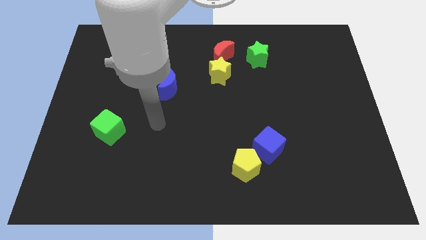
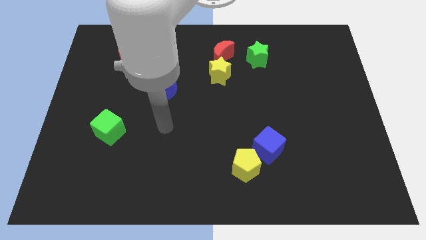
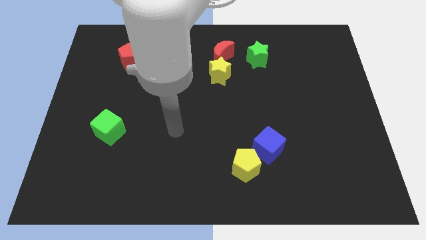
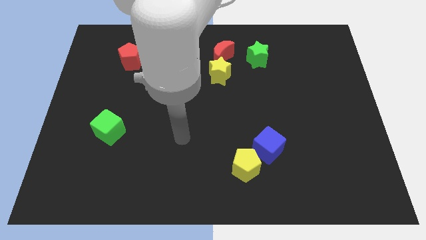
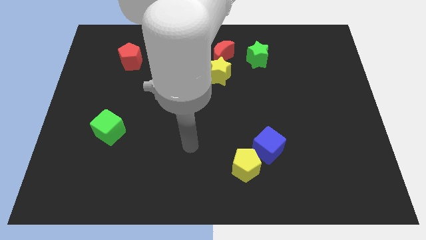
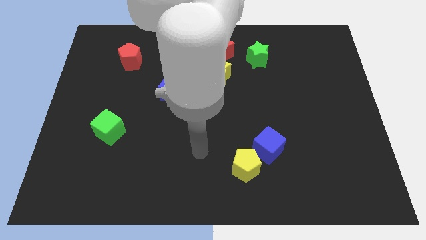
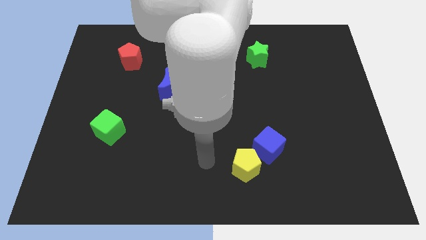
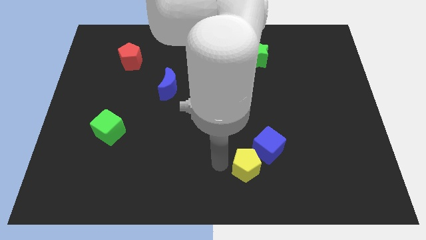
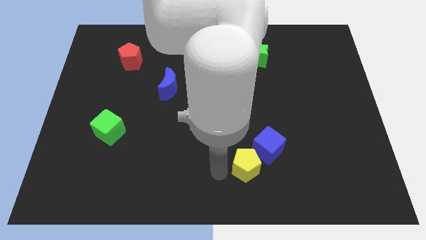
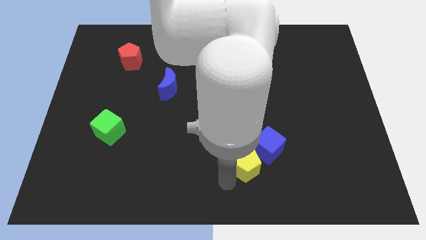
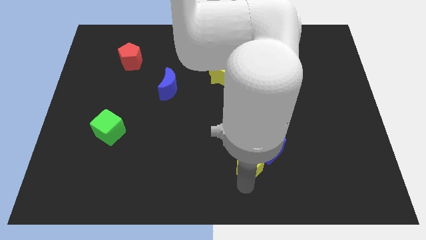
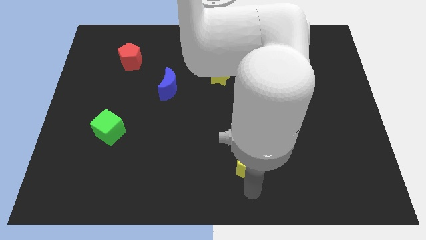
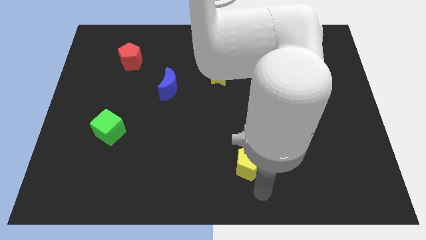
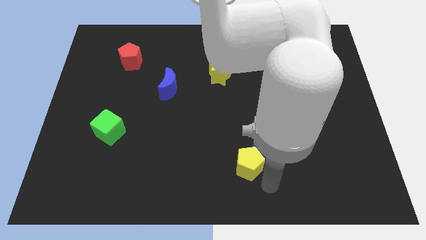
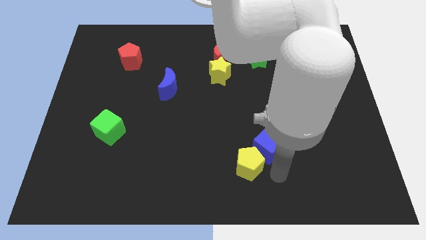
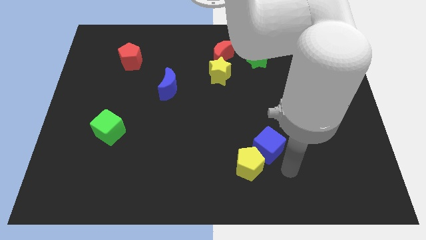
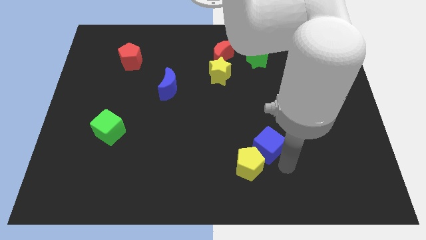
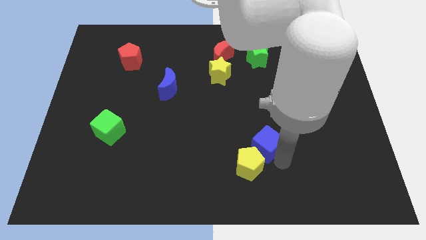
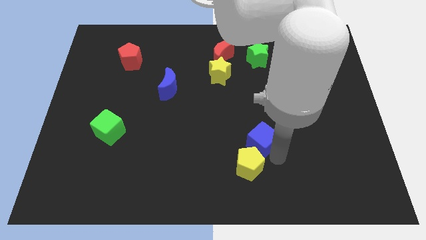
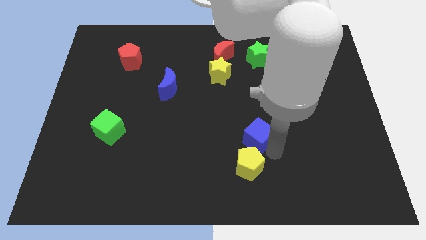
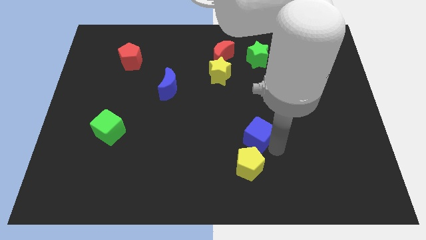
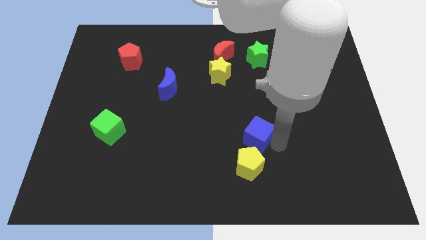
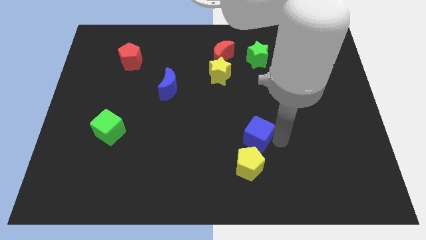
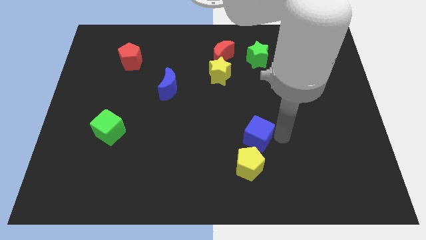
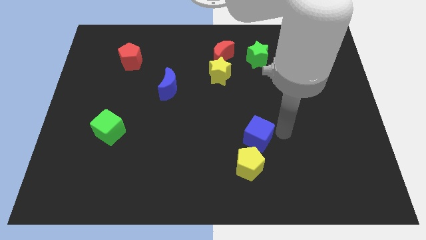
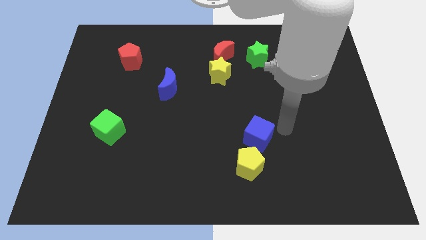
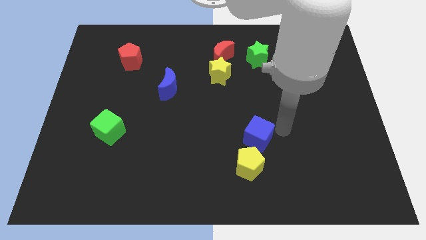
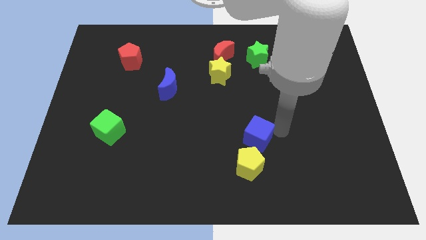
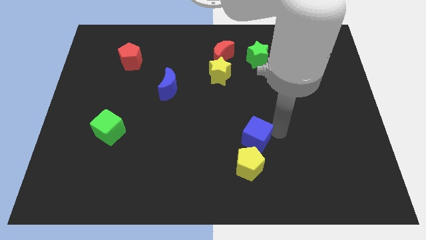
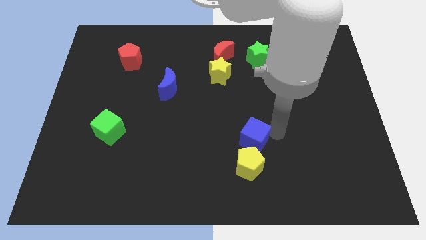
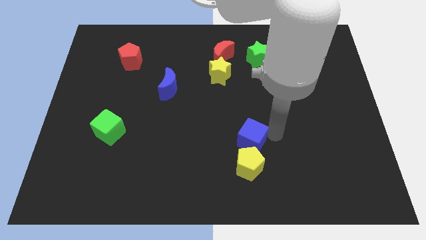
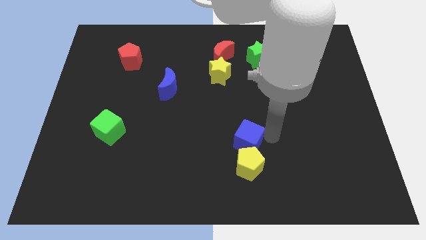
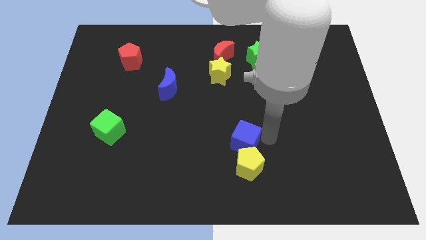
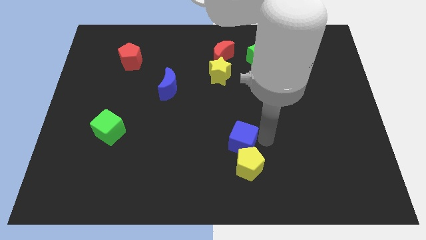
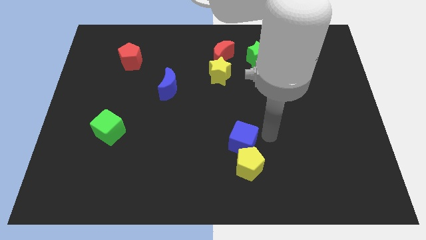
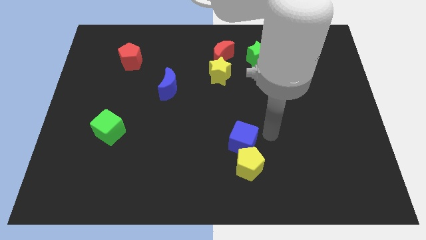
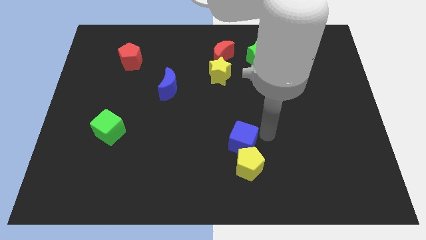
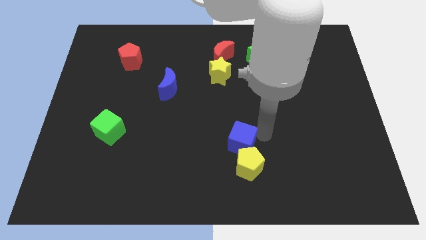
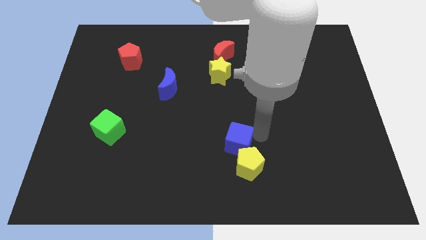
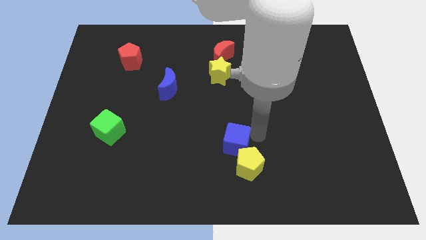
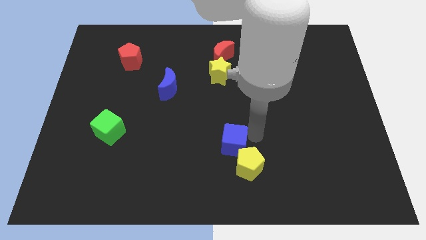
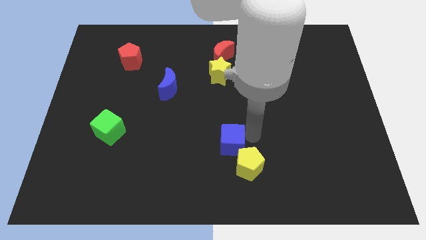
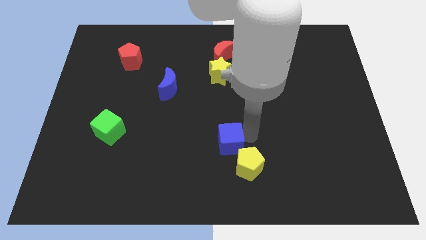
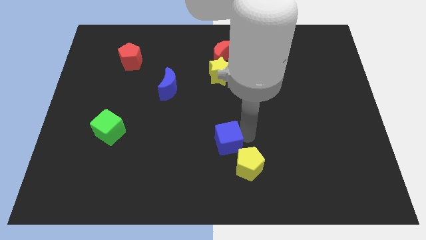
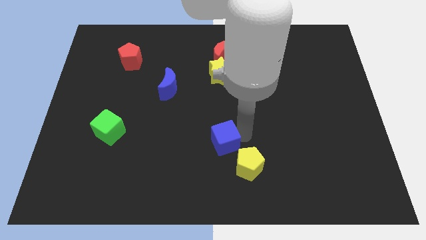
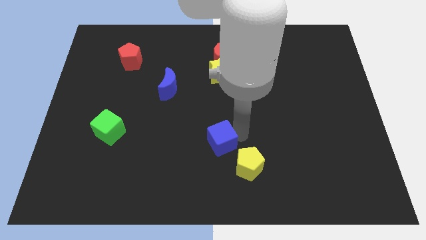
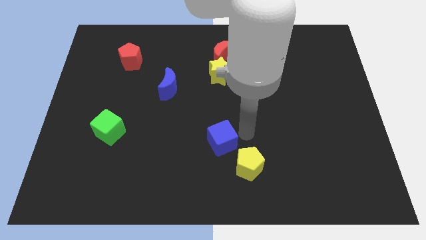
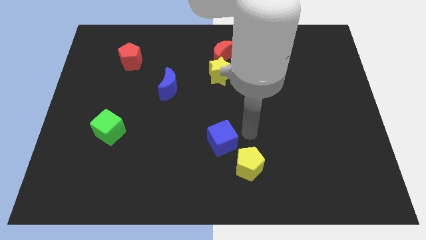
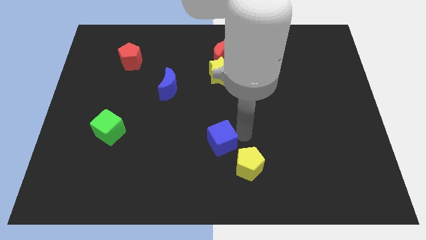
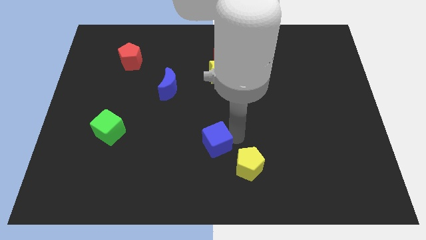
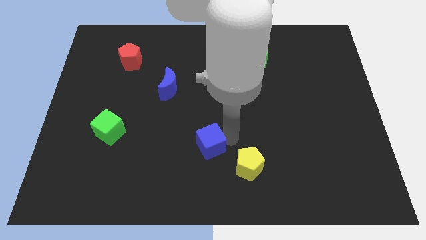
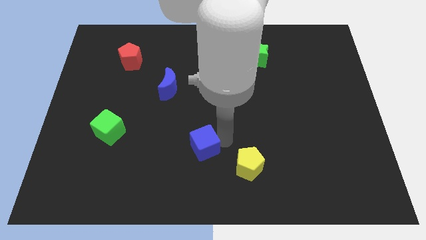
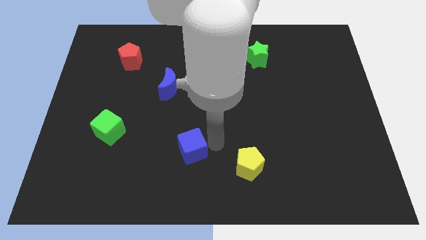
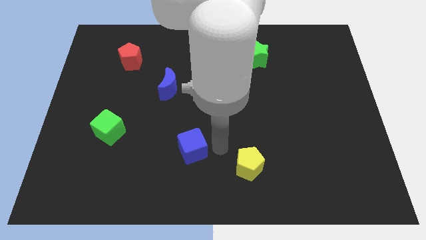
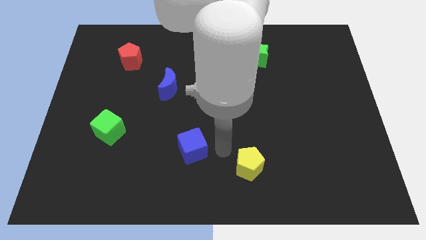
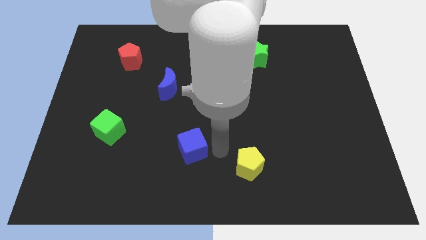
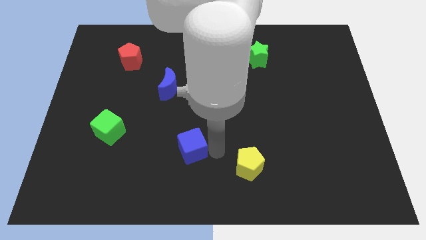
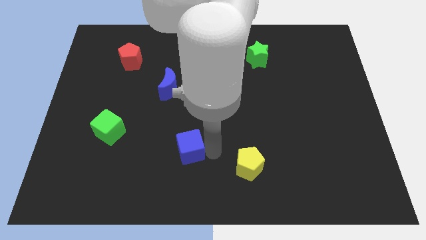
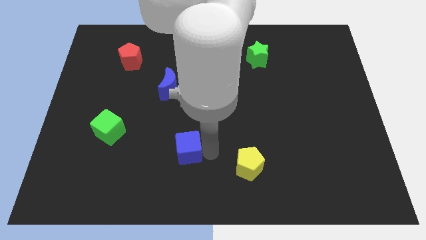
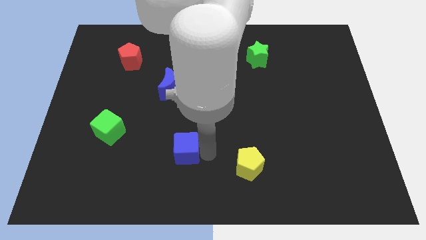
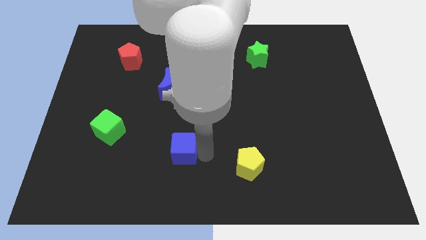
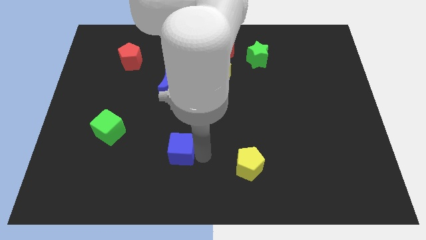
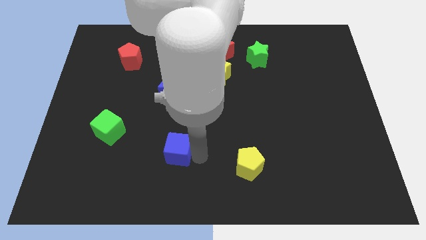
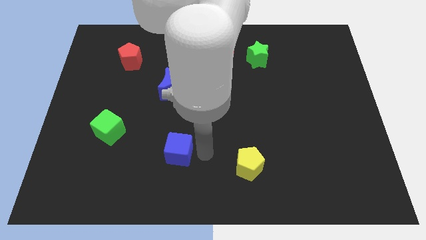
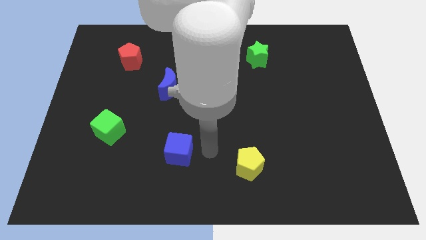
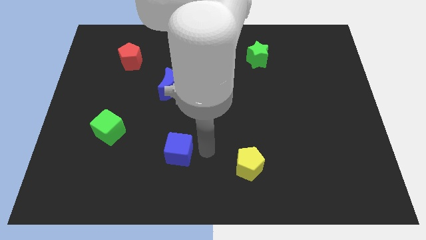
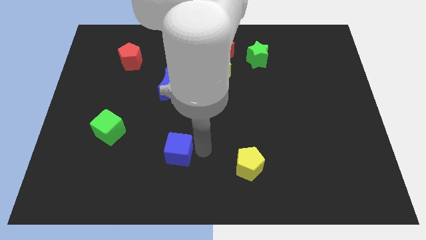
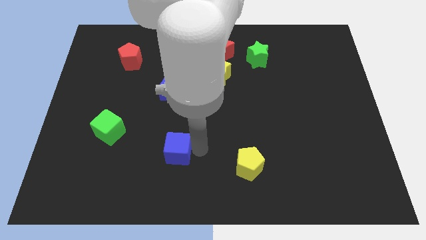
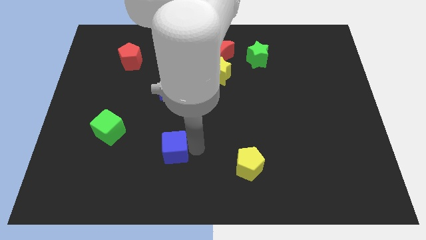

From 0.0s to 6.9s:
move the blue cube to the left

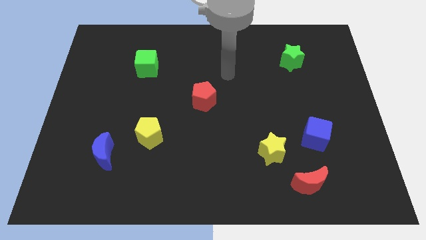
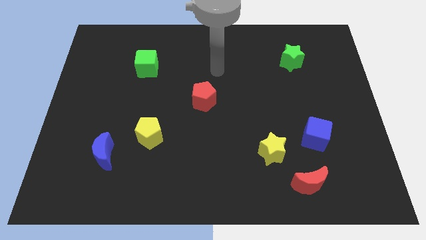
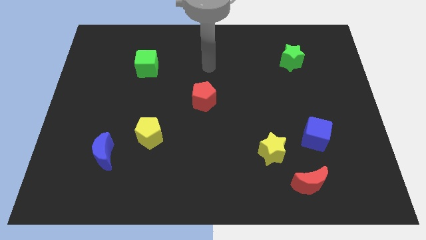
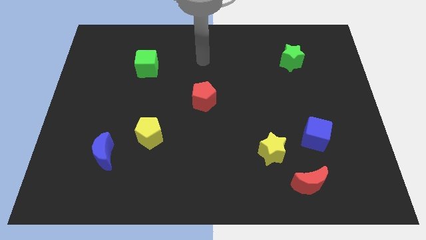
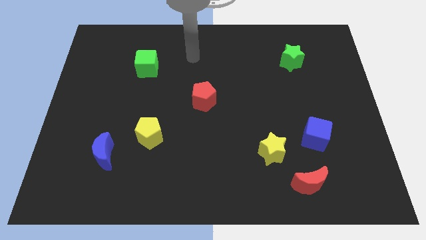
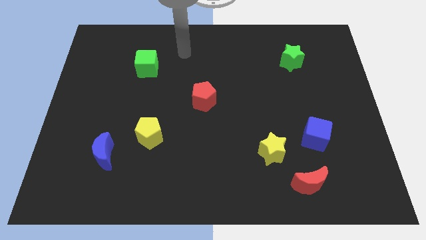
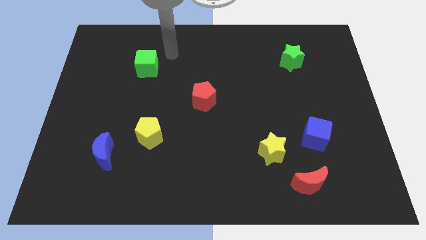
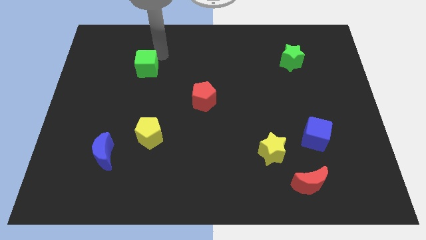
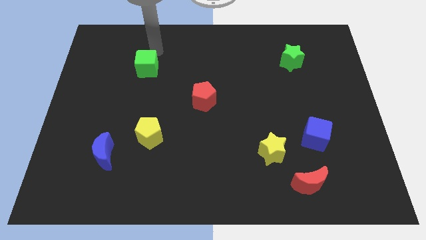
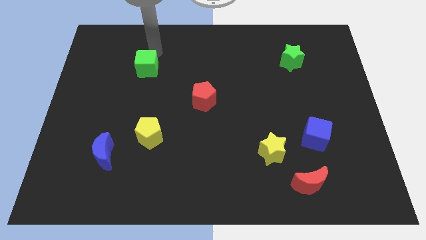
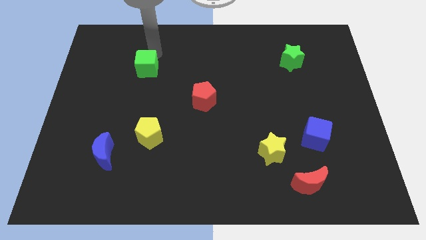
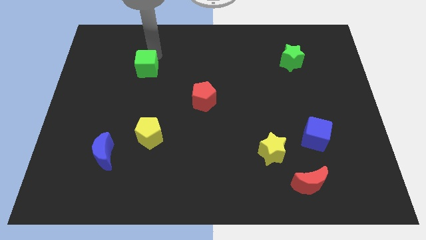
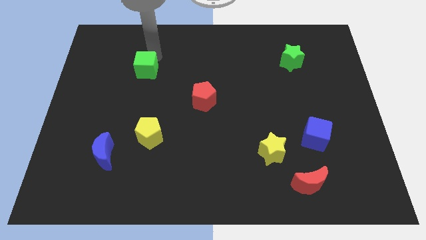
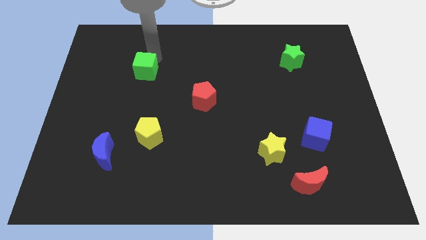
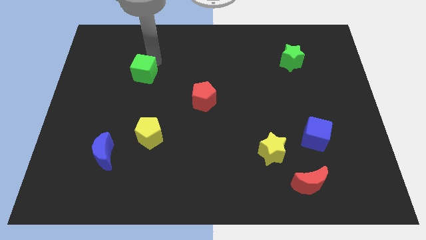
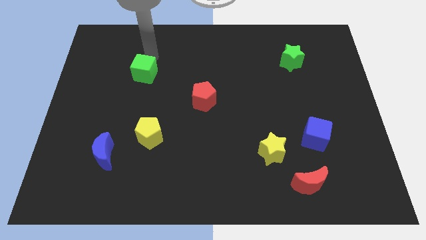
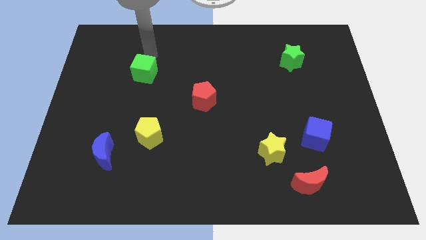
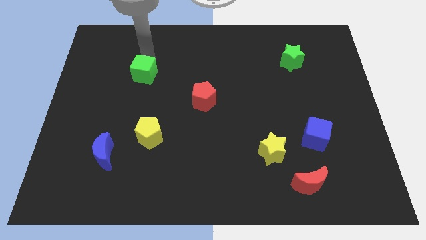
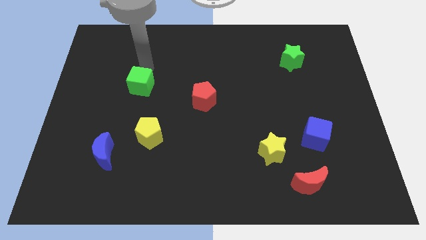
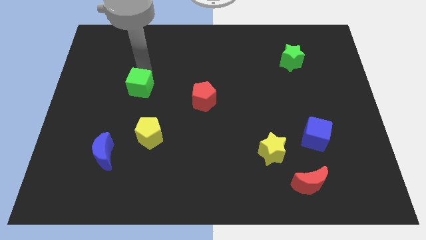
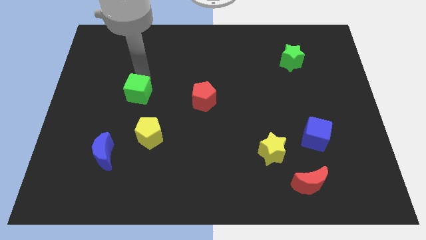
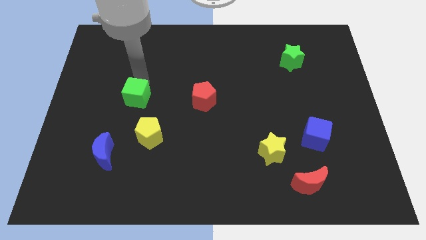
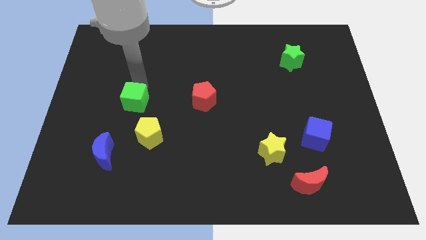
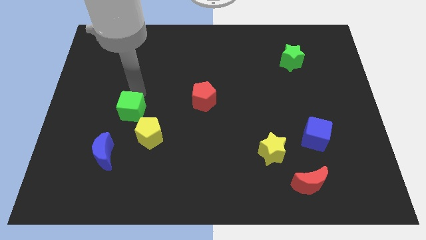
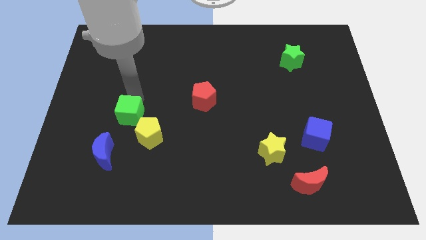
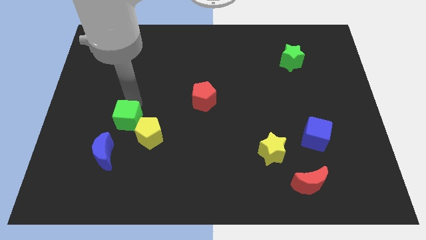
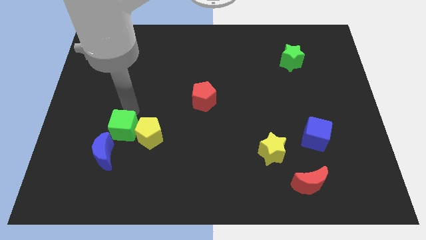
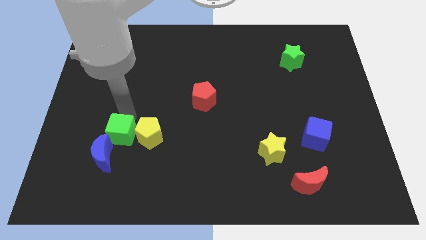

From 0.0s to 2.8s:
move the green cube downwards
